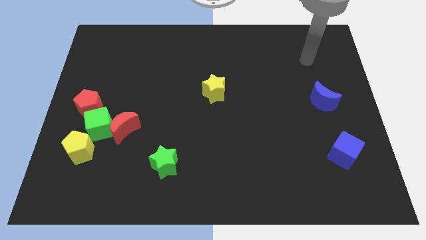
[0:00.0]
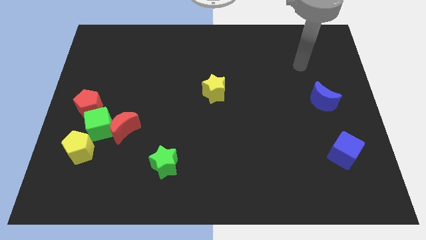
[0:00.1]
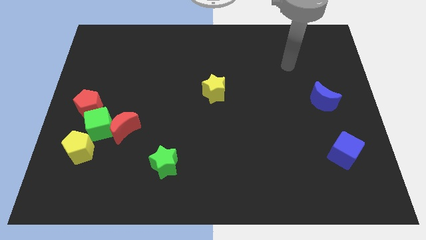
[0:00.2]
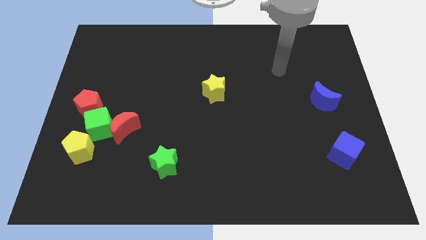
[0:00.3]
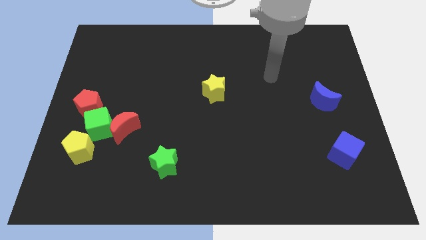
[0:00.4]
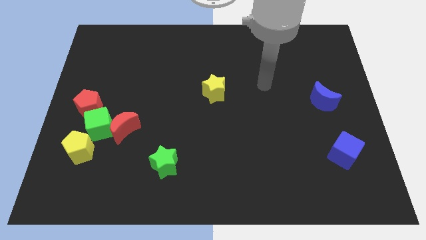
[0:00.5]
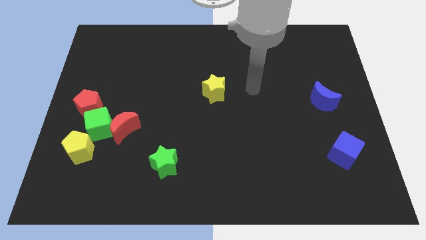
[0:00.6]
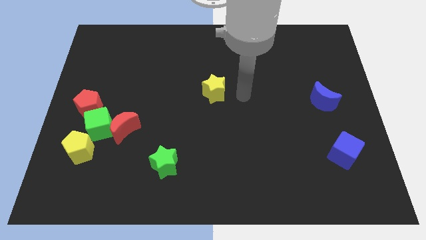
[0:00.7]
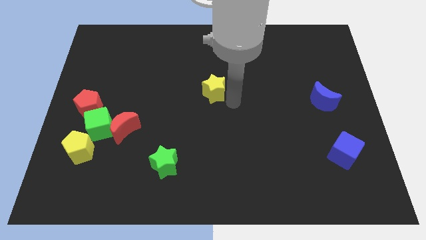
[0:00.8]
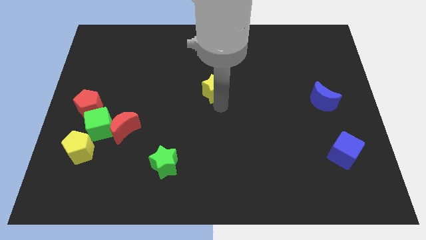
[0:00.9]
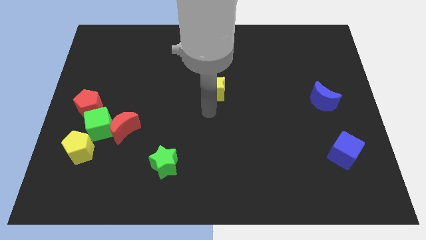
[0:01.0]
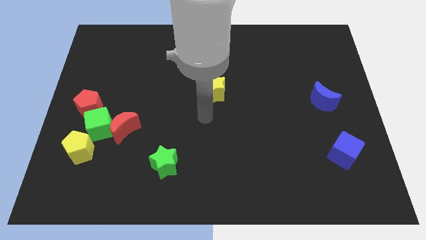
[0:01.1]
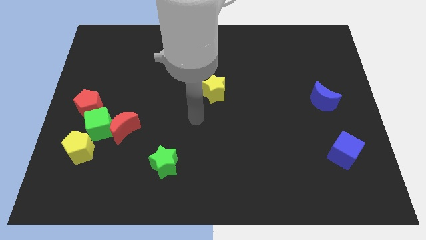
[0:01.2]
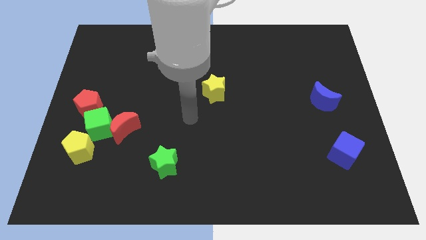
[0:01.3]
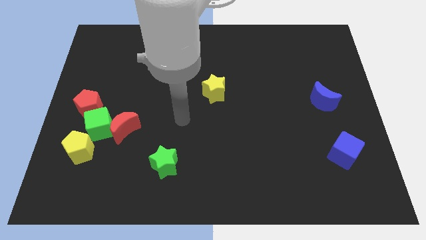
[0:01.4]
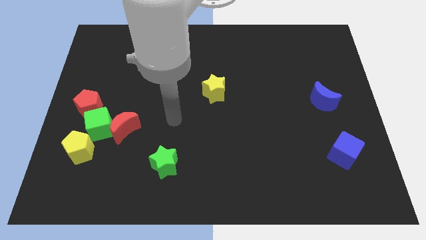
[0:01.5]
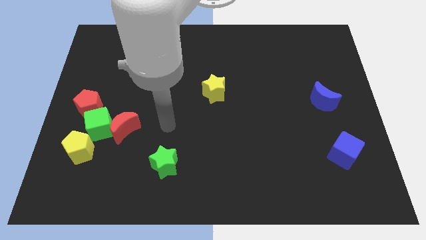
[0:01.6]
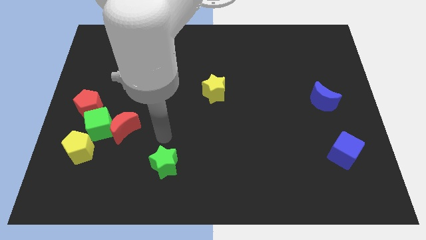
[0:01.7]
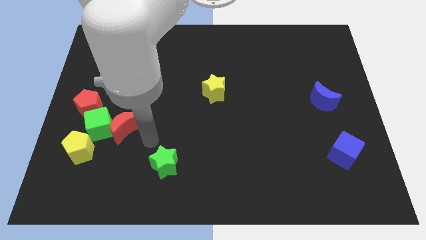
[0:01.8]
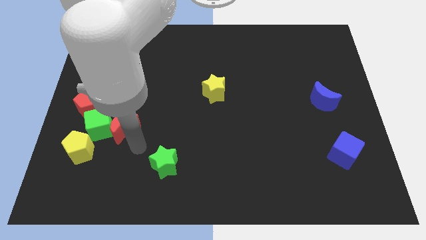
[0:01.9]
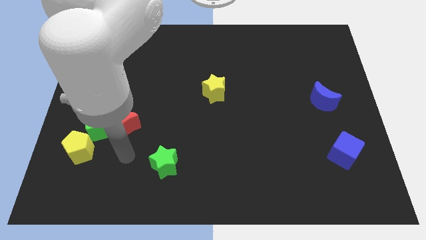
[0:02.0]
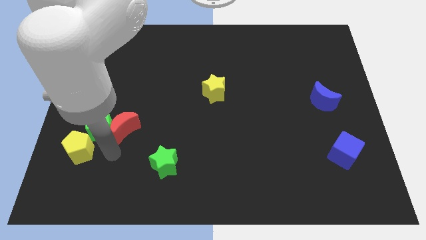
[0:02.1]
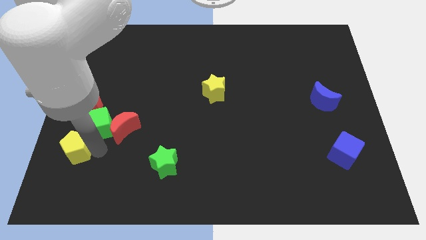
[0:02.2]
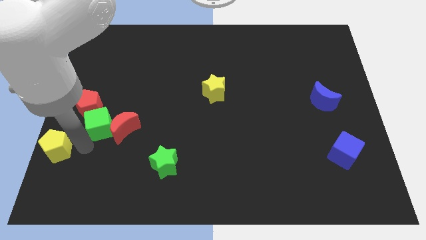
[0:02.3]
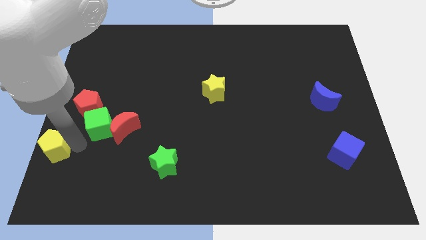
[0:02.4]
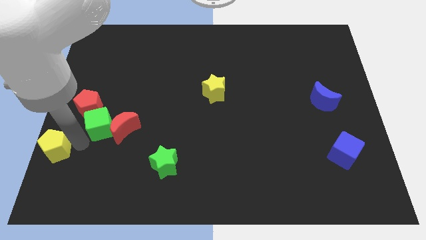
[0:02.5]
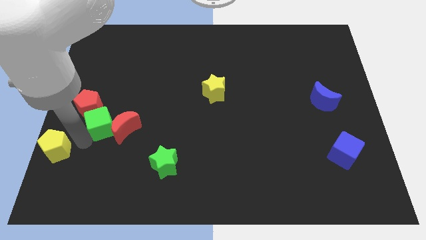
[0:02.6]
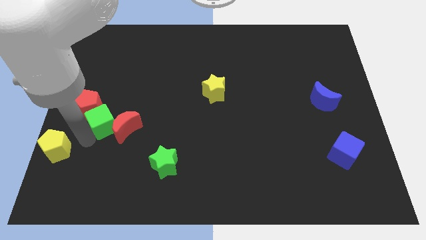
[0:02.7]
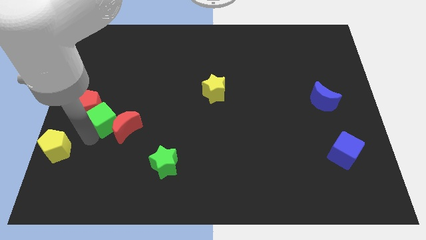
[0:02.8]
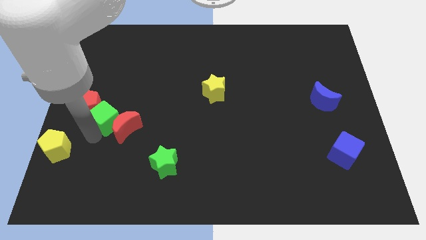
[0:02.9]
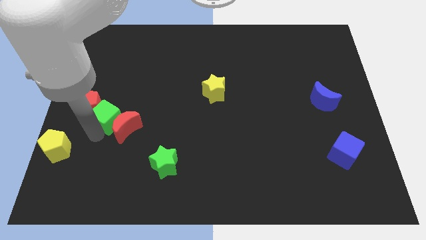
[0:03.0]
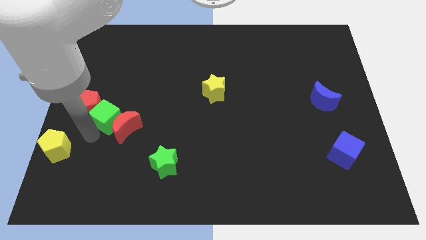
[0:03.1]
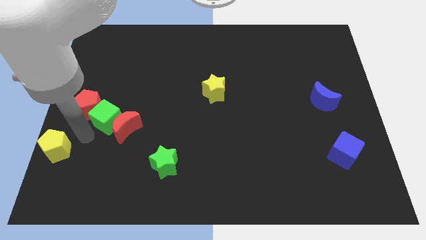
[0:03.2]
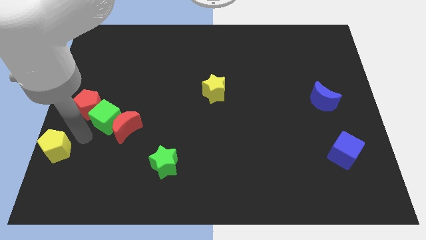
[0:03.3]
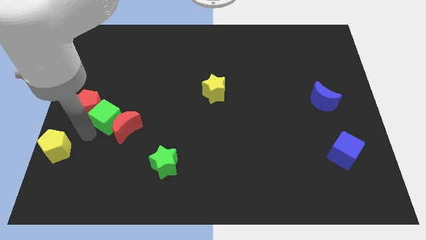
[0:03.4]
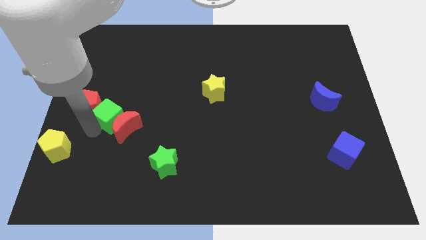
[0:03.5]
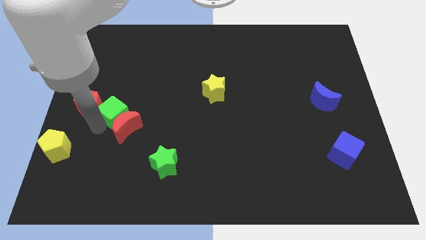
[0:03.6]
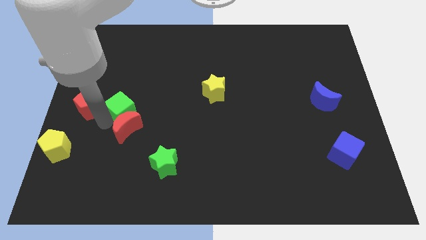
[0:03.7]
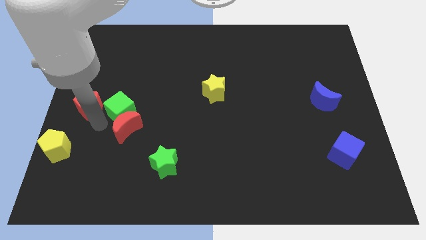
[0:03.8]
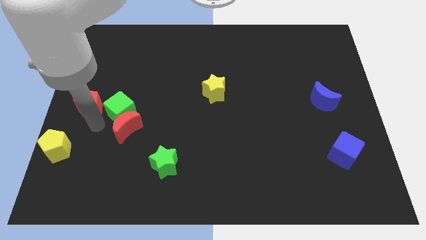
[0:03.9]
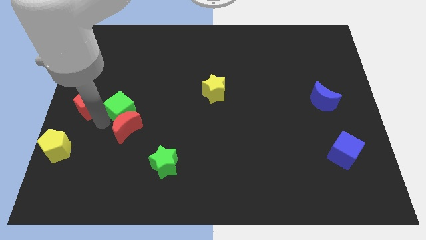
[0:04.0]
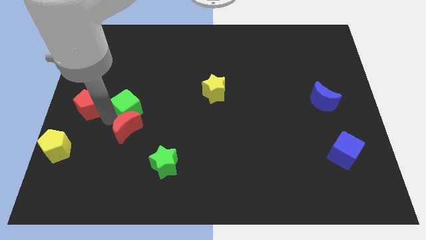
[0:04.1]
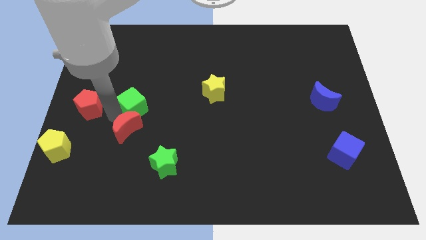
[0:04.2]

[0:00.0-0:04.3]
separate the green cube from the red moon, red pentagon, and yellow pentagon

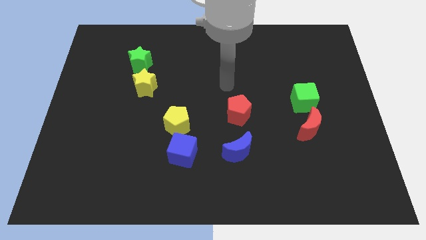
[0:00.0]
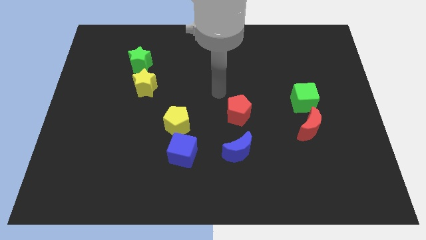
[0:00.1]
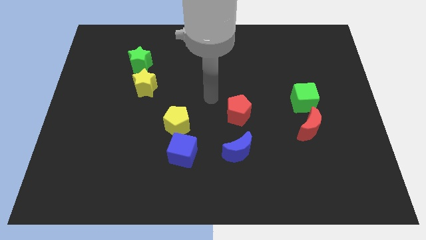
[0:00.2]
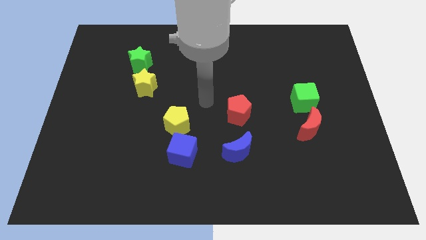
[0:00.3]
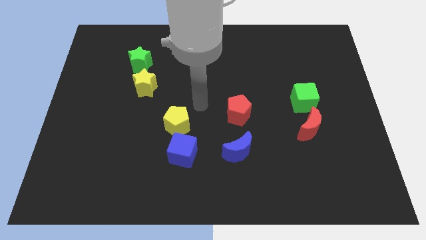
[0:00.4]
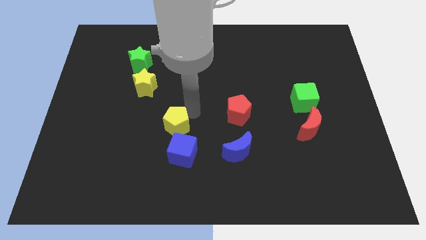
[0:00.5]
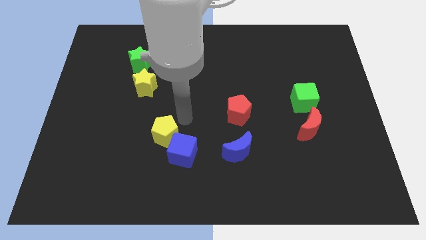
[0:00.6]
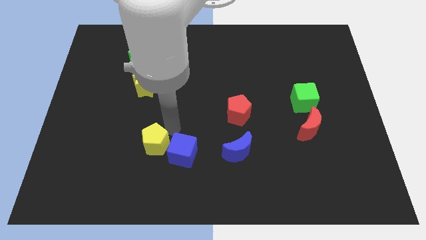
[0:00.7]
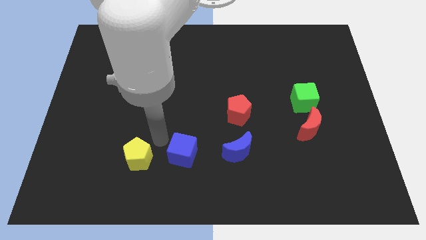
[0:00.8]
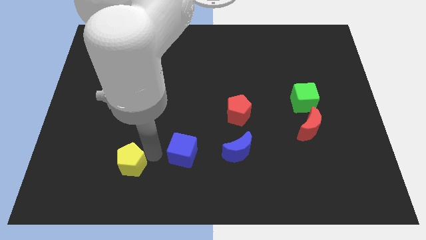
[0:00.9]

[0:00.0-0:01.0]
move the blue cube away from the yellow pentagon

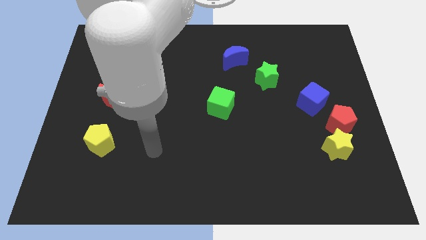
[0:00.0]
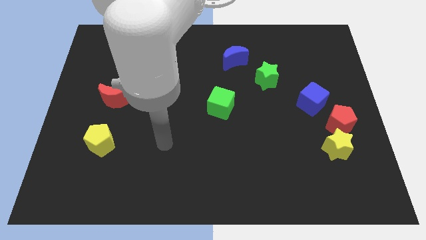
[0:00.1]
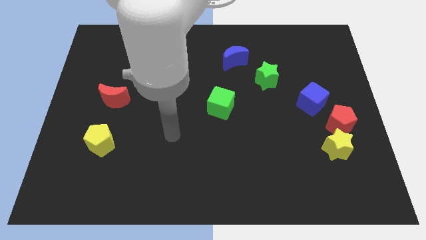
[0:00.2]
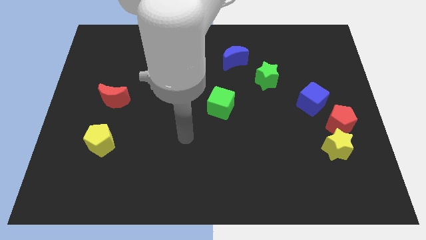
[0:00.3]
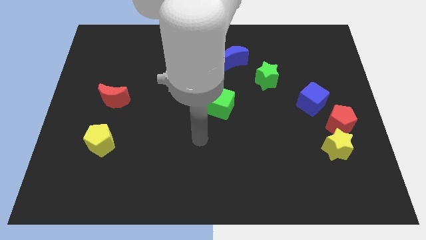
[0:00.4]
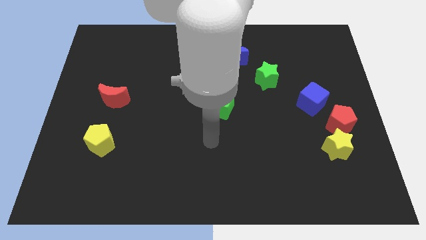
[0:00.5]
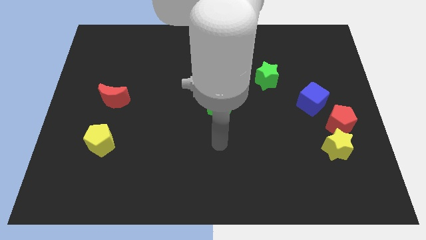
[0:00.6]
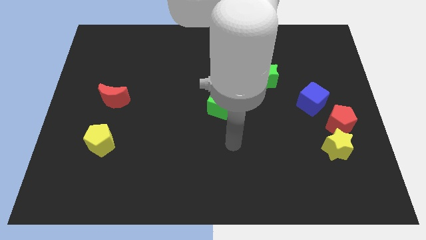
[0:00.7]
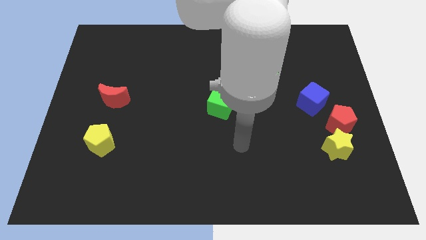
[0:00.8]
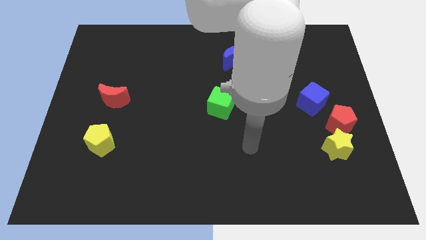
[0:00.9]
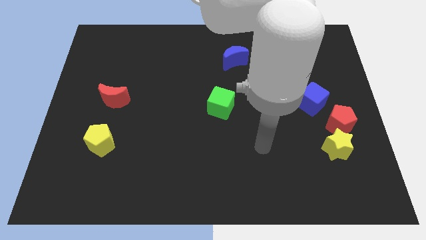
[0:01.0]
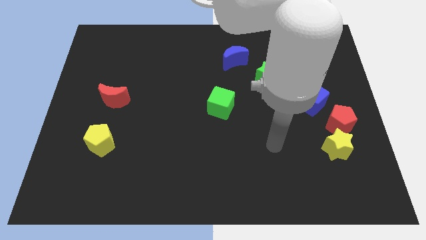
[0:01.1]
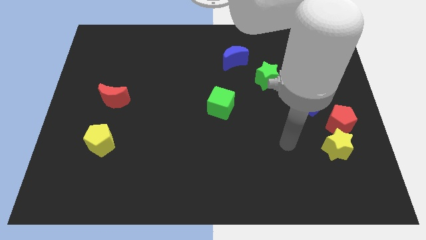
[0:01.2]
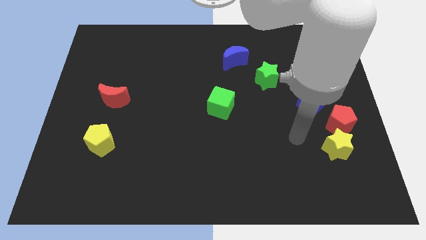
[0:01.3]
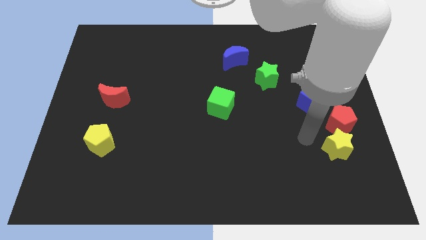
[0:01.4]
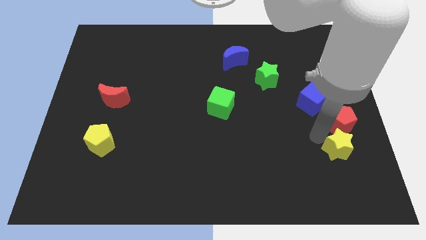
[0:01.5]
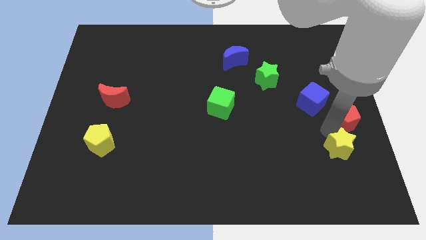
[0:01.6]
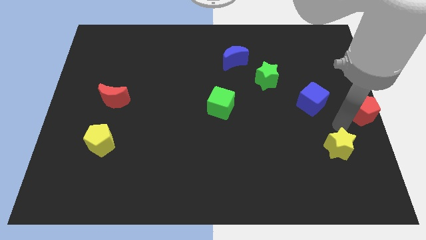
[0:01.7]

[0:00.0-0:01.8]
move the yellow star away from the red pentagon

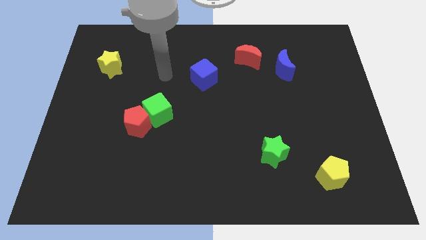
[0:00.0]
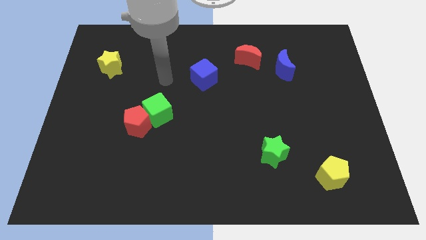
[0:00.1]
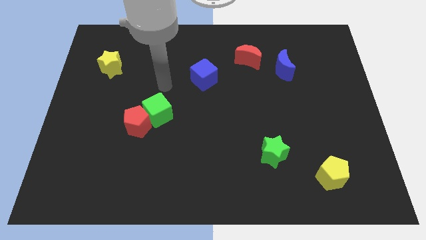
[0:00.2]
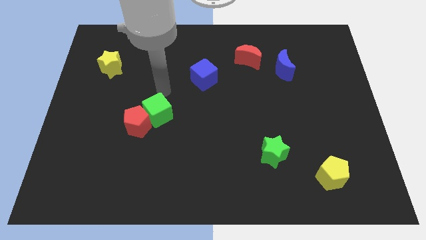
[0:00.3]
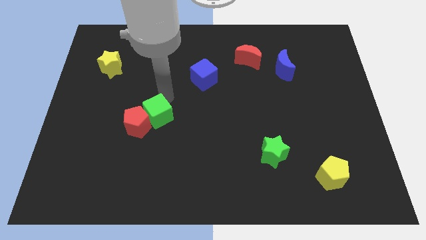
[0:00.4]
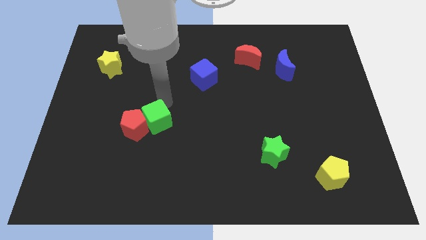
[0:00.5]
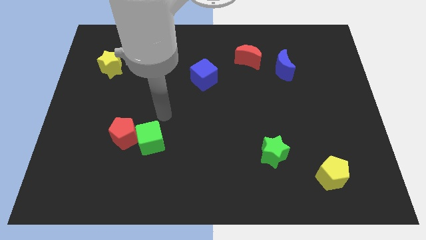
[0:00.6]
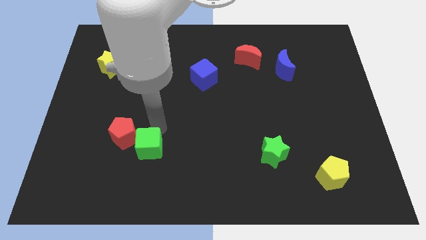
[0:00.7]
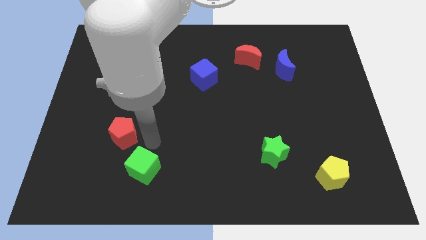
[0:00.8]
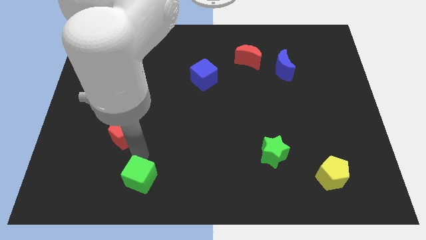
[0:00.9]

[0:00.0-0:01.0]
separate the red pentagon from the green cube

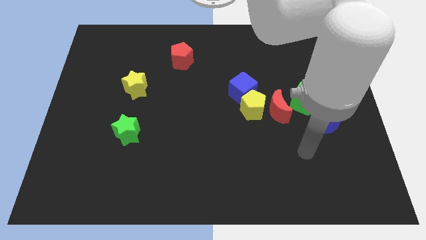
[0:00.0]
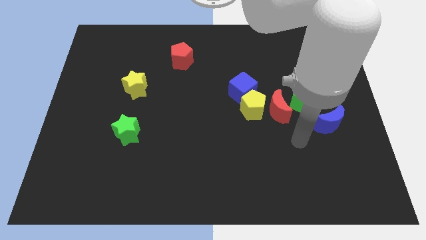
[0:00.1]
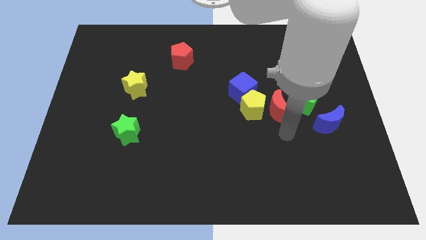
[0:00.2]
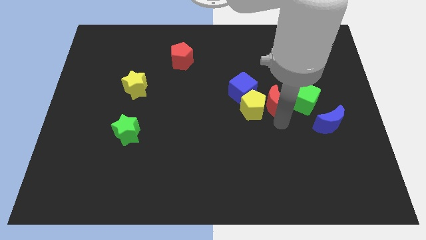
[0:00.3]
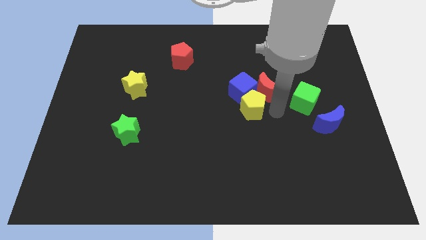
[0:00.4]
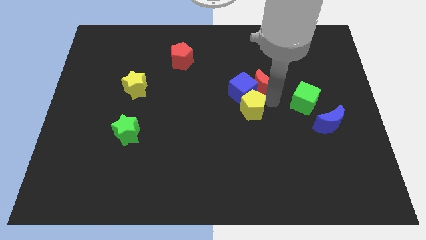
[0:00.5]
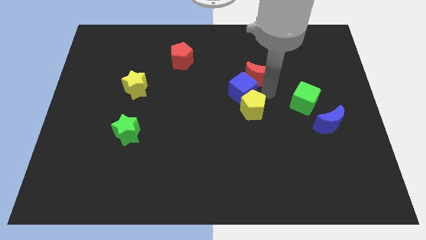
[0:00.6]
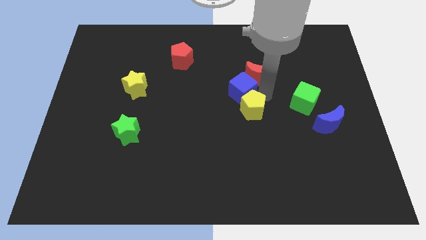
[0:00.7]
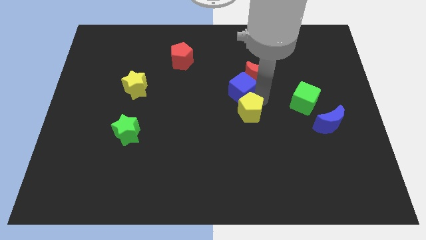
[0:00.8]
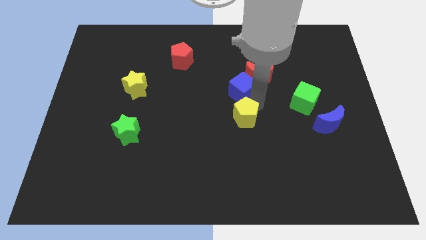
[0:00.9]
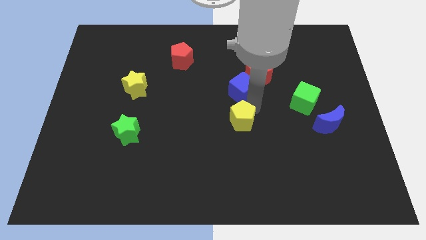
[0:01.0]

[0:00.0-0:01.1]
pull the yellow pentagon apart from the blue cube and red moon

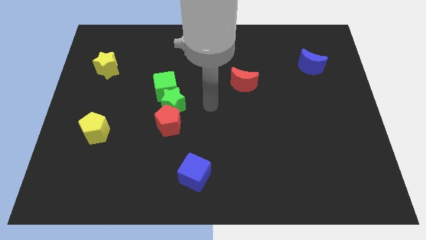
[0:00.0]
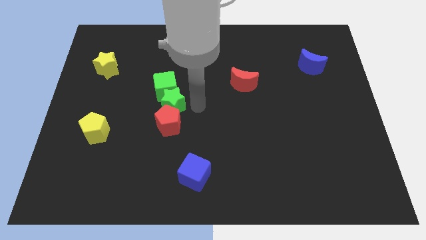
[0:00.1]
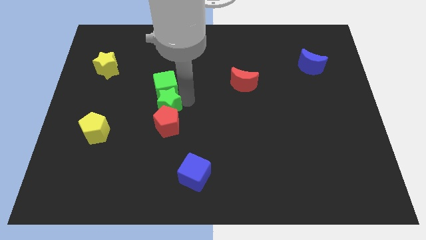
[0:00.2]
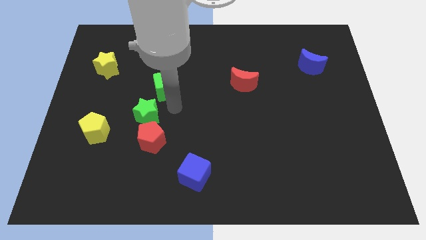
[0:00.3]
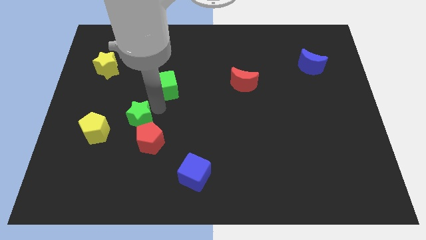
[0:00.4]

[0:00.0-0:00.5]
pull the green cube apart from the green star
